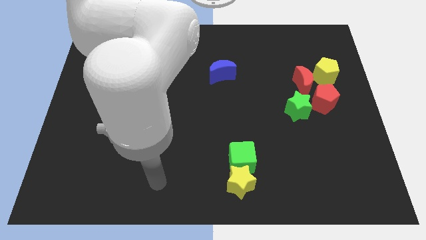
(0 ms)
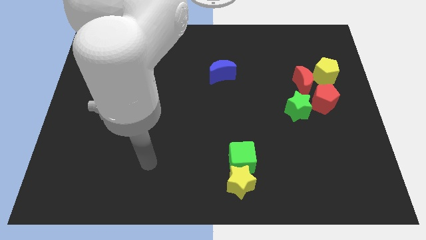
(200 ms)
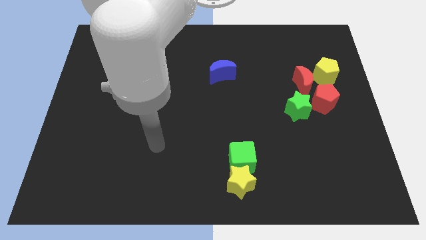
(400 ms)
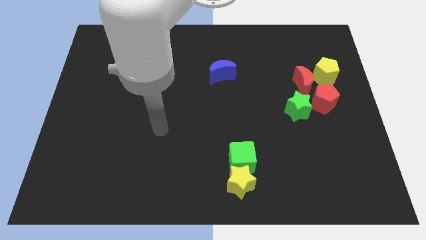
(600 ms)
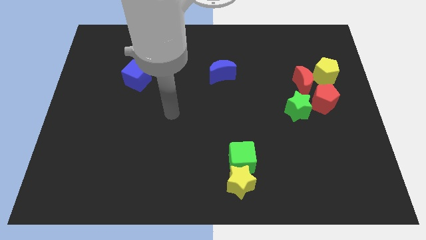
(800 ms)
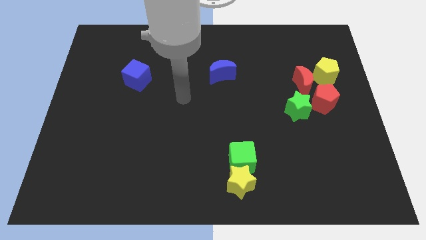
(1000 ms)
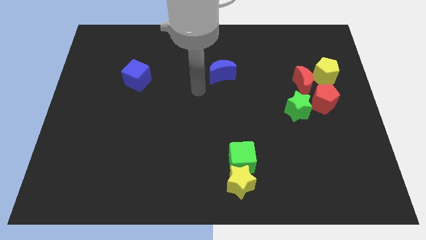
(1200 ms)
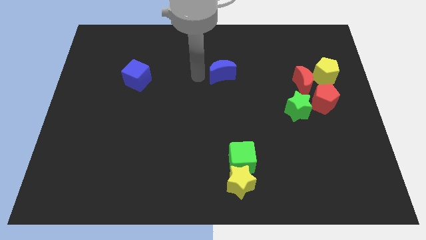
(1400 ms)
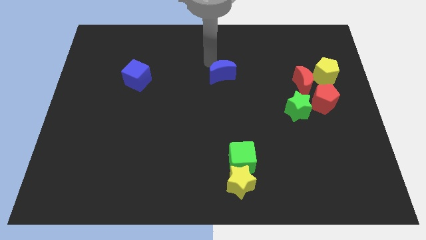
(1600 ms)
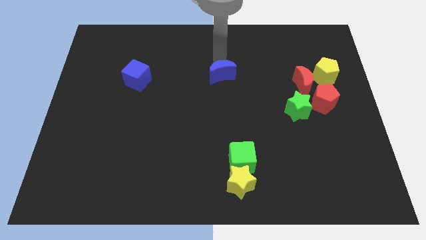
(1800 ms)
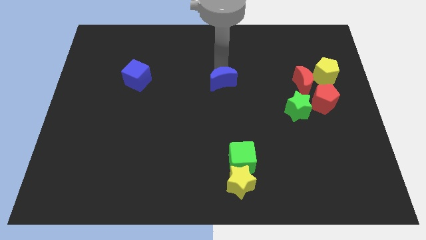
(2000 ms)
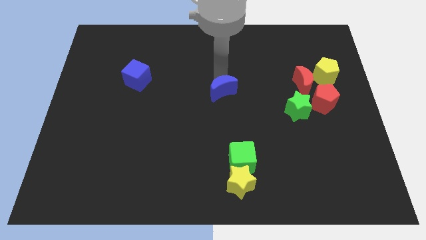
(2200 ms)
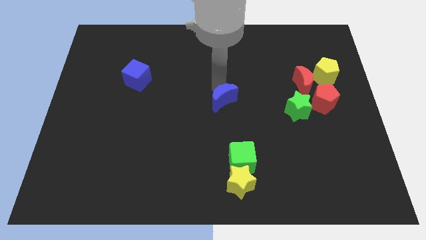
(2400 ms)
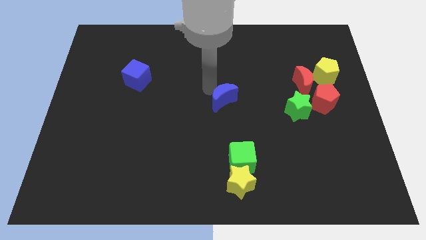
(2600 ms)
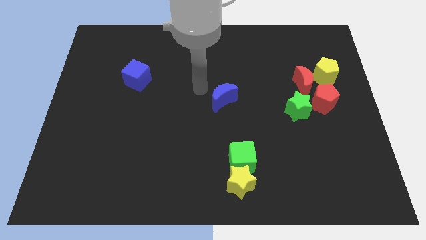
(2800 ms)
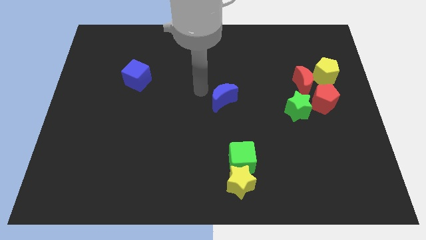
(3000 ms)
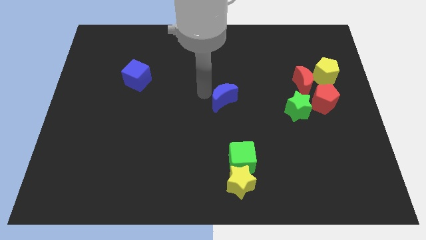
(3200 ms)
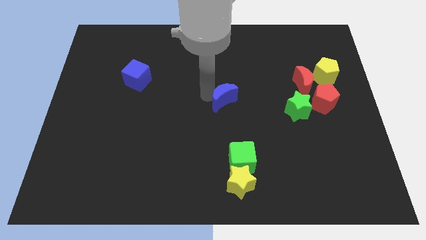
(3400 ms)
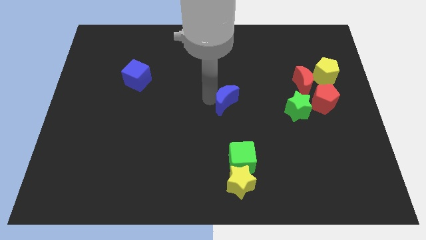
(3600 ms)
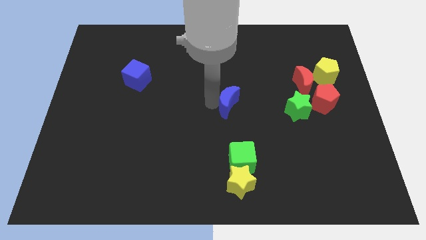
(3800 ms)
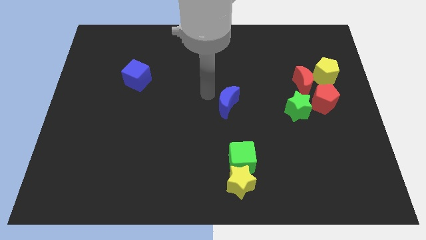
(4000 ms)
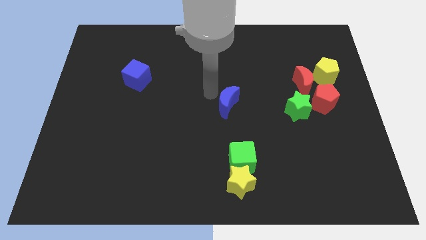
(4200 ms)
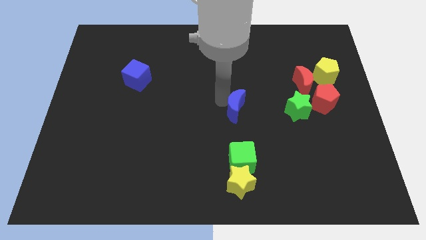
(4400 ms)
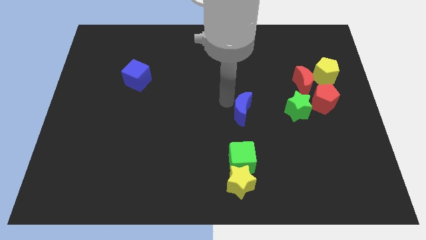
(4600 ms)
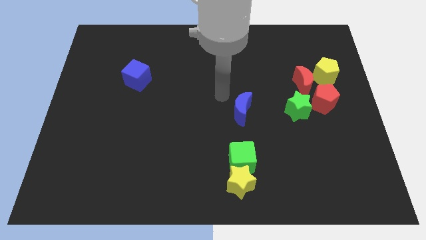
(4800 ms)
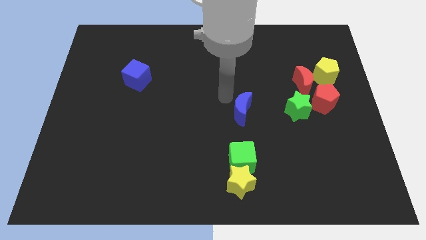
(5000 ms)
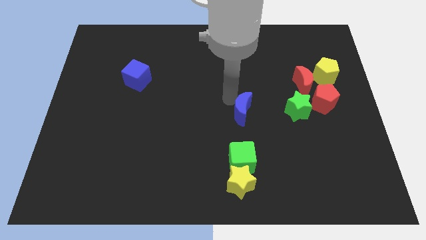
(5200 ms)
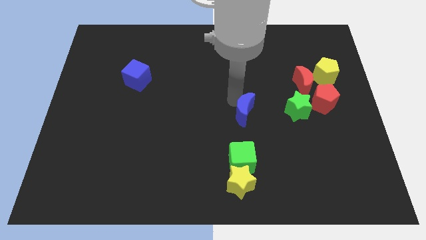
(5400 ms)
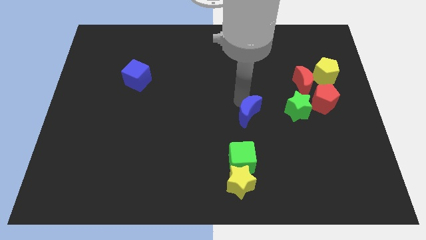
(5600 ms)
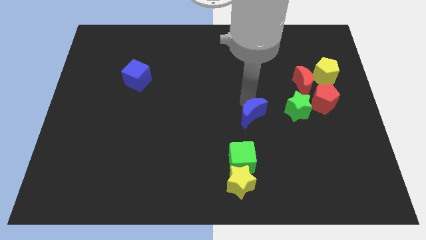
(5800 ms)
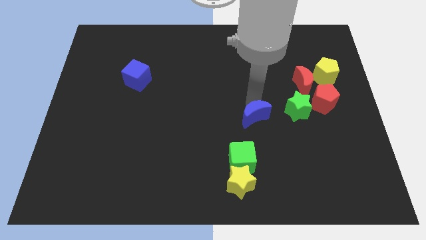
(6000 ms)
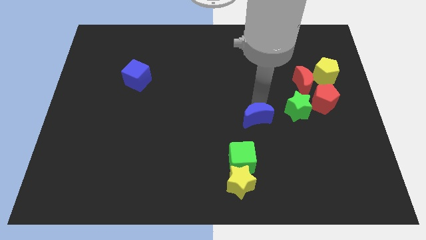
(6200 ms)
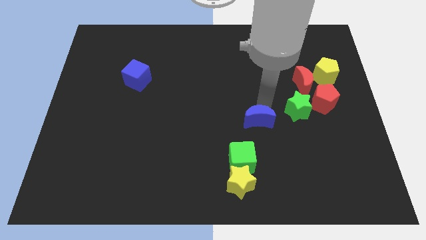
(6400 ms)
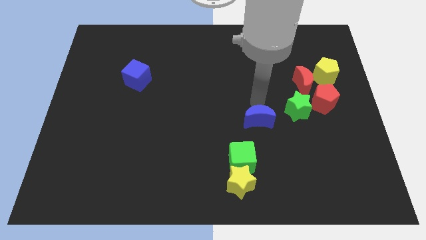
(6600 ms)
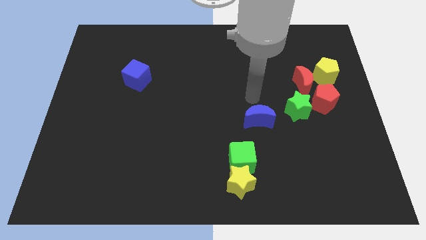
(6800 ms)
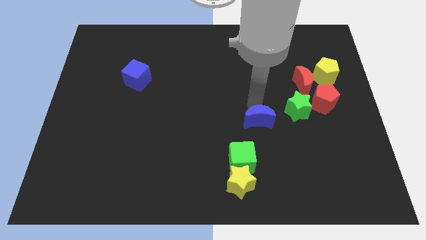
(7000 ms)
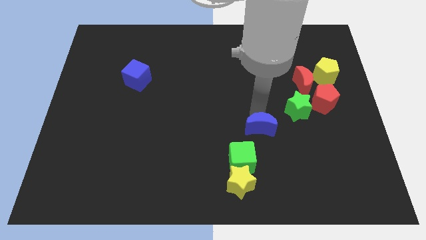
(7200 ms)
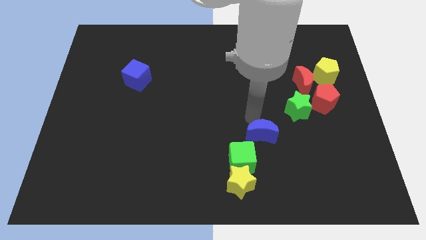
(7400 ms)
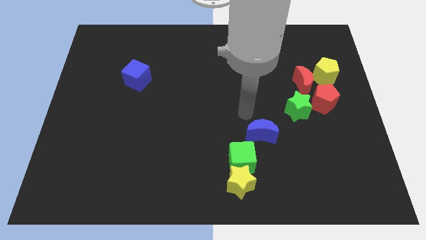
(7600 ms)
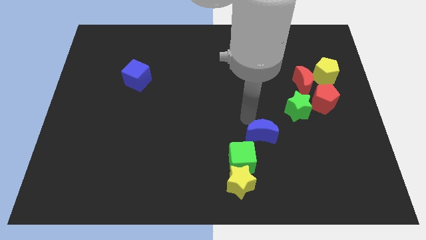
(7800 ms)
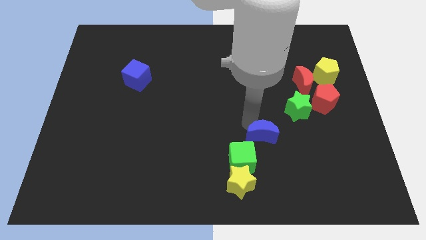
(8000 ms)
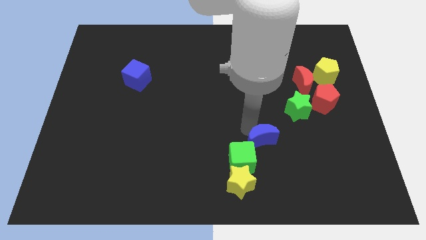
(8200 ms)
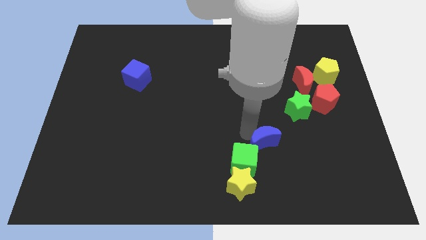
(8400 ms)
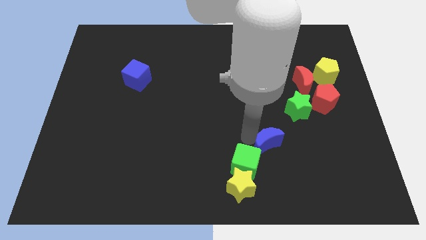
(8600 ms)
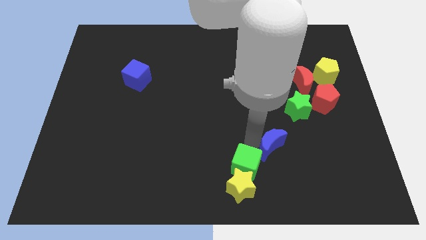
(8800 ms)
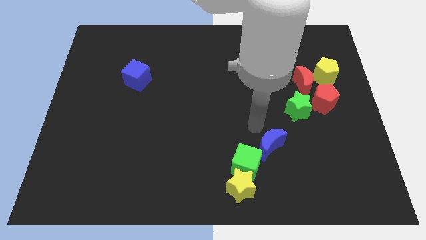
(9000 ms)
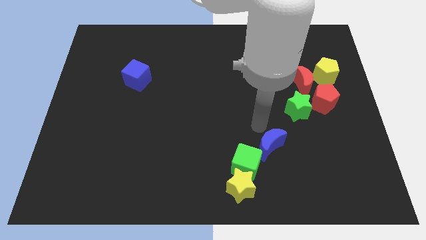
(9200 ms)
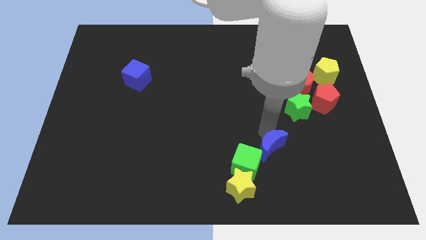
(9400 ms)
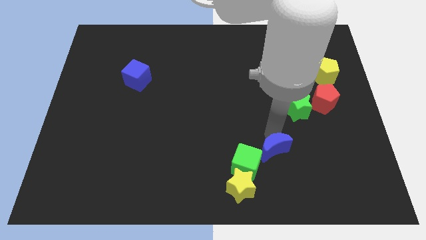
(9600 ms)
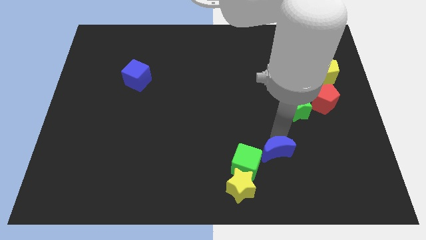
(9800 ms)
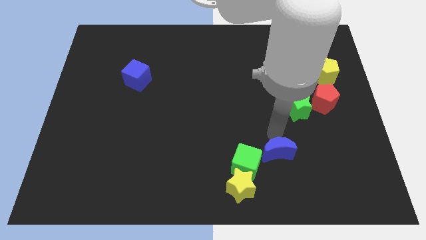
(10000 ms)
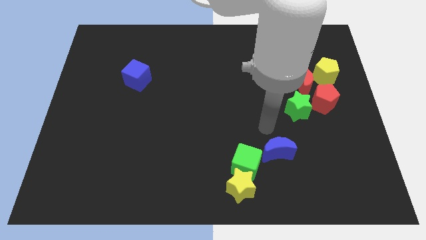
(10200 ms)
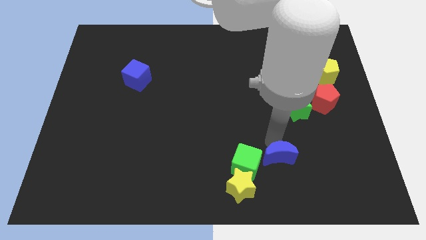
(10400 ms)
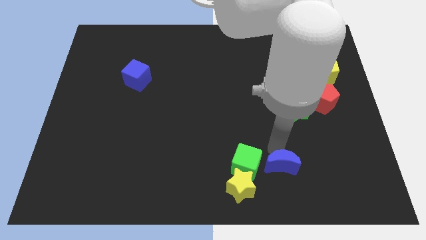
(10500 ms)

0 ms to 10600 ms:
push the blue moon to the right side of the yellow star

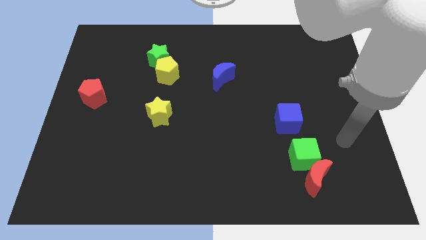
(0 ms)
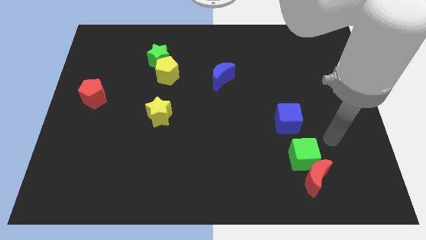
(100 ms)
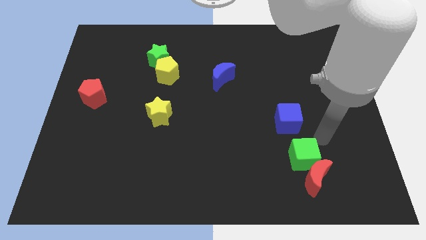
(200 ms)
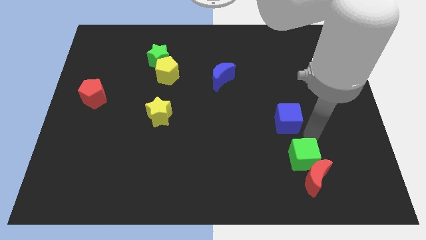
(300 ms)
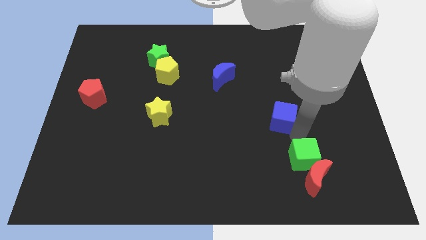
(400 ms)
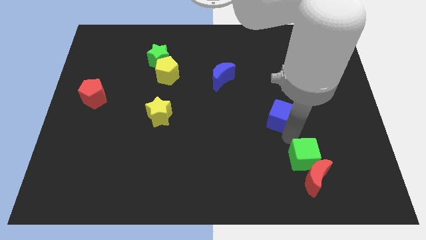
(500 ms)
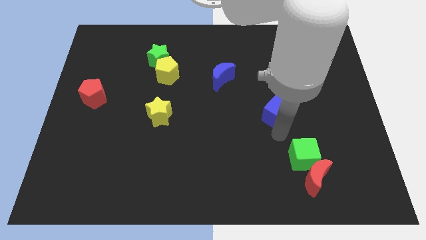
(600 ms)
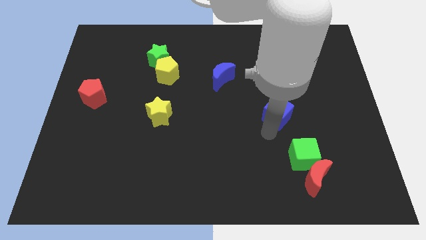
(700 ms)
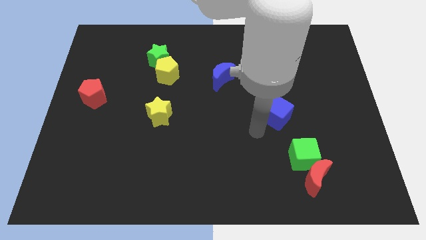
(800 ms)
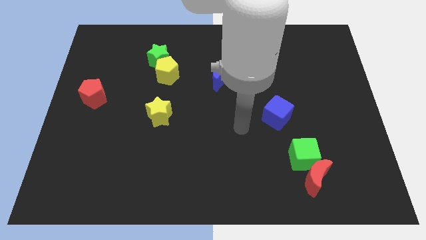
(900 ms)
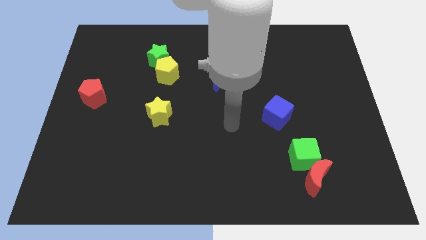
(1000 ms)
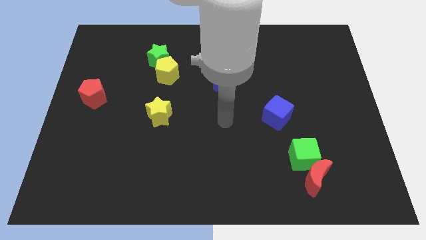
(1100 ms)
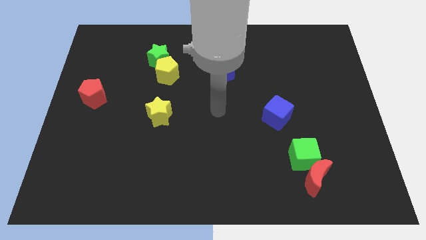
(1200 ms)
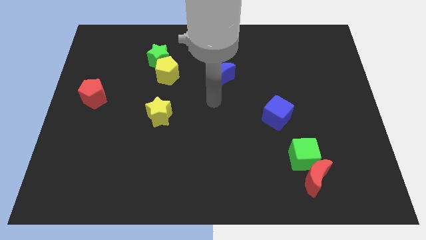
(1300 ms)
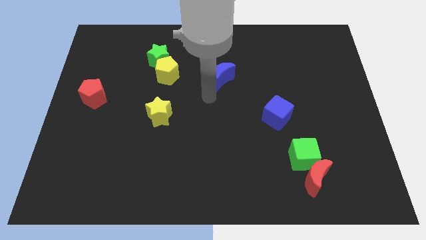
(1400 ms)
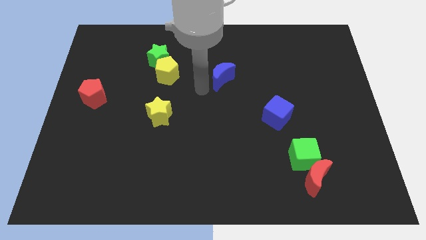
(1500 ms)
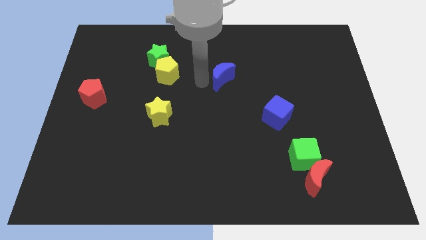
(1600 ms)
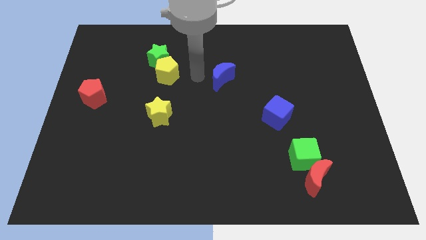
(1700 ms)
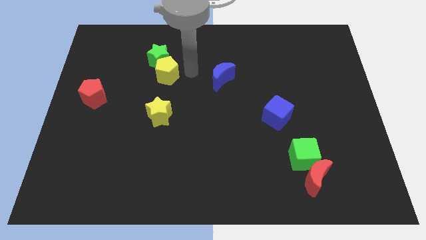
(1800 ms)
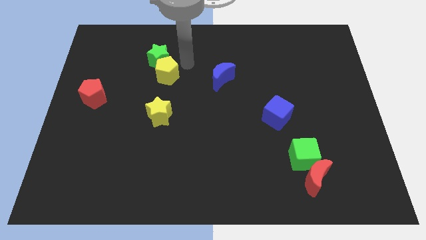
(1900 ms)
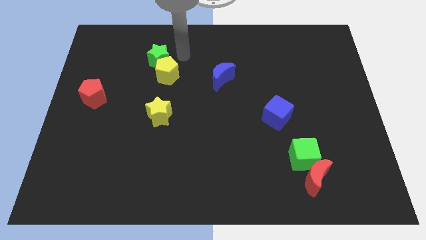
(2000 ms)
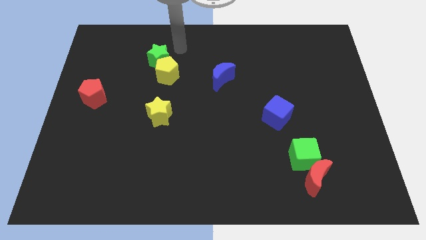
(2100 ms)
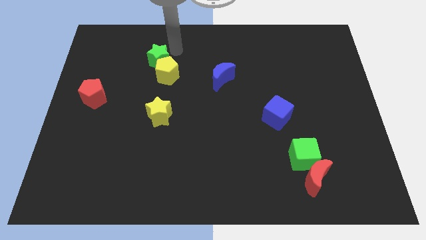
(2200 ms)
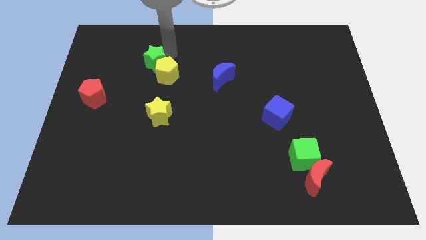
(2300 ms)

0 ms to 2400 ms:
put the green star to the left of the yellow pentagon

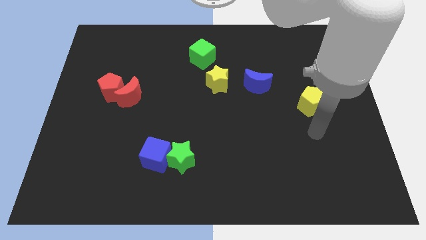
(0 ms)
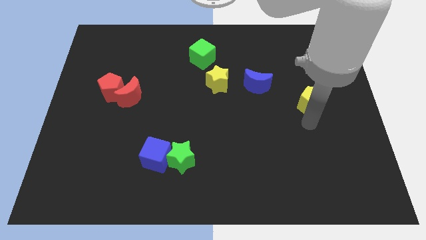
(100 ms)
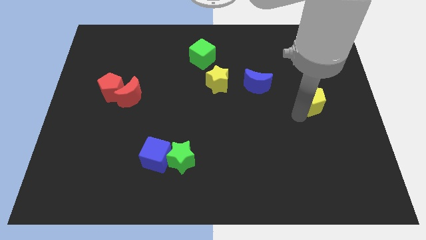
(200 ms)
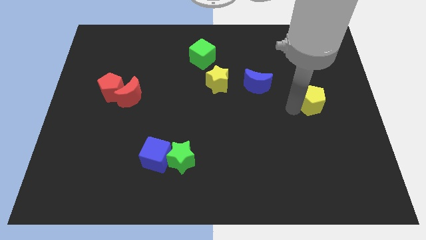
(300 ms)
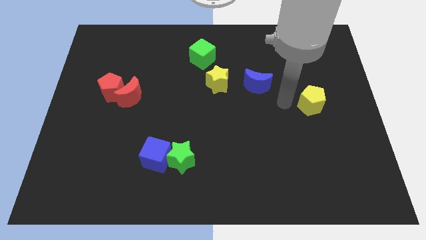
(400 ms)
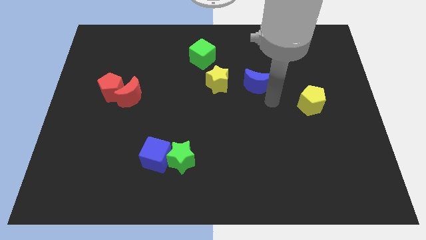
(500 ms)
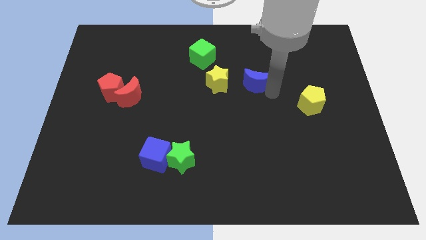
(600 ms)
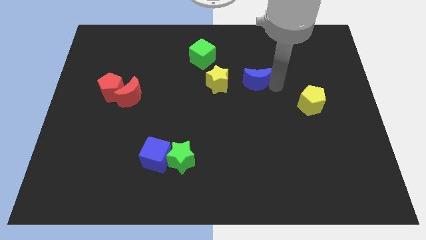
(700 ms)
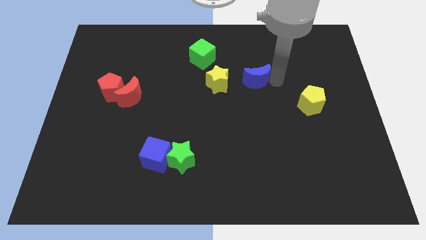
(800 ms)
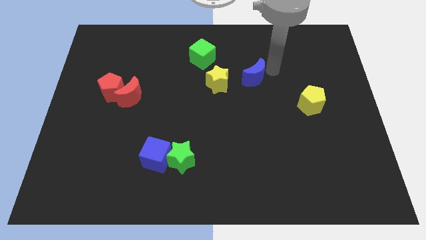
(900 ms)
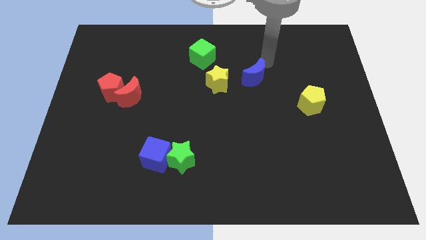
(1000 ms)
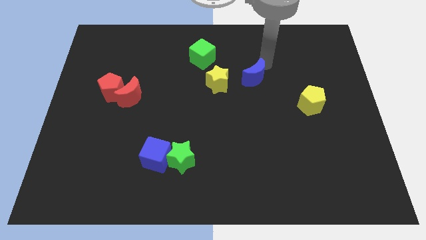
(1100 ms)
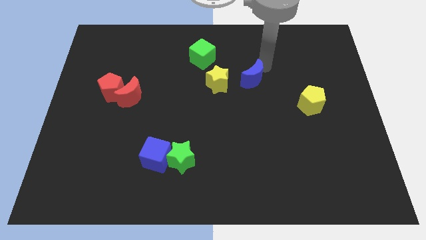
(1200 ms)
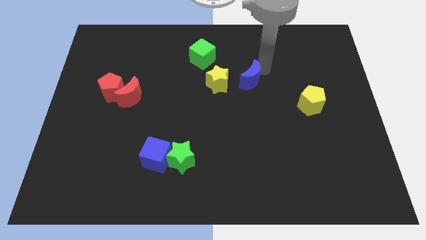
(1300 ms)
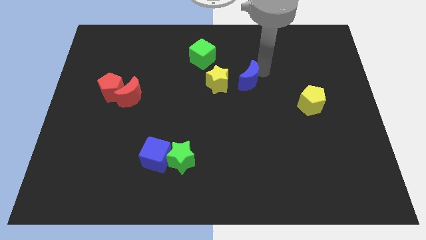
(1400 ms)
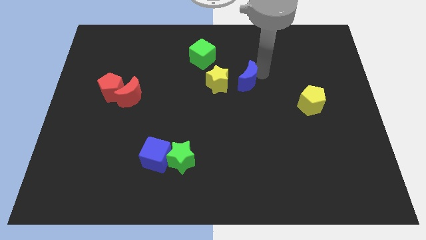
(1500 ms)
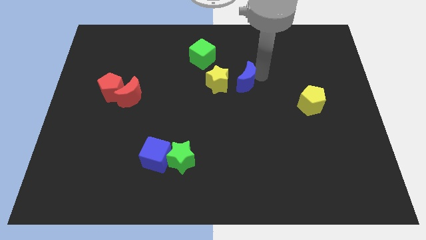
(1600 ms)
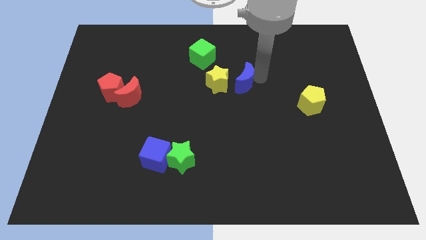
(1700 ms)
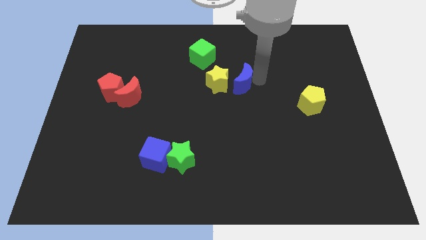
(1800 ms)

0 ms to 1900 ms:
put the blue moon to the bottom right side of the yellow star
